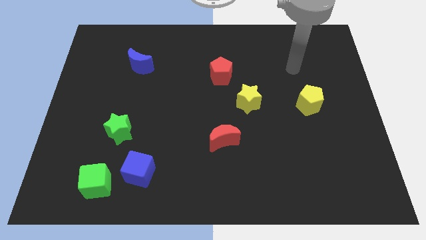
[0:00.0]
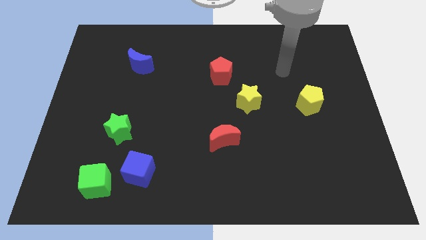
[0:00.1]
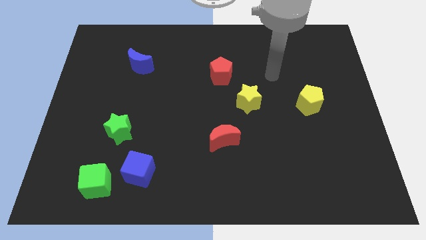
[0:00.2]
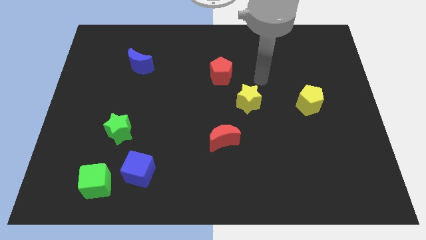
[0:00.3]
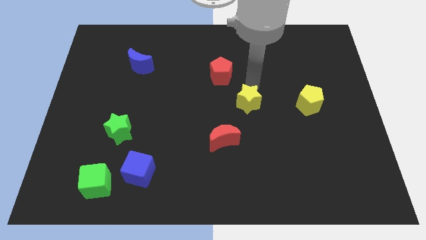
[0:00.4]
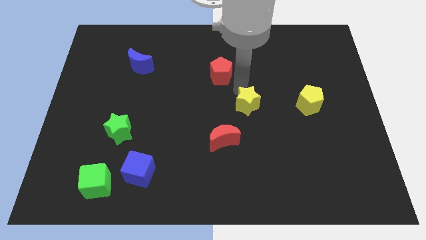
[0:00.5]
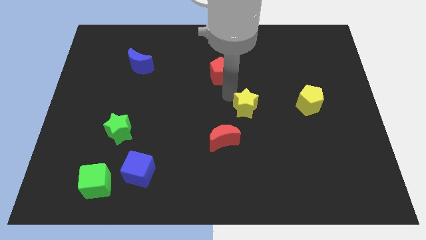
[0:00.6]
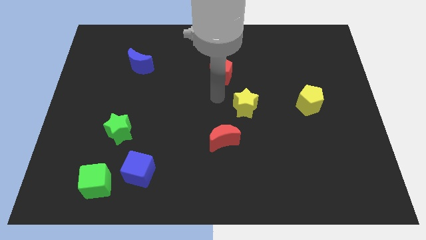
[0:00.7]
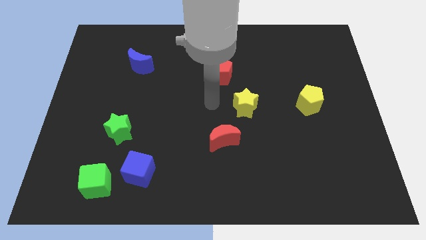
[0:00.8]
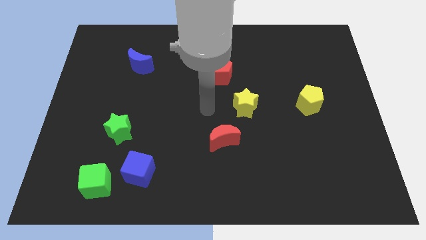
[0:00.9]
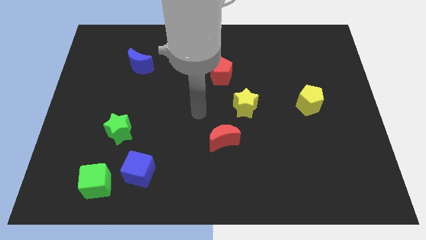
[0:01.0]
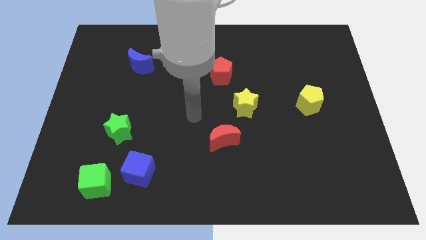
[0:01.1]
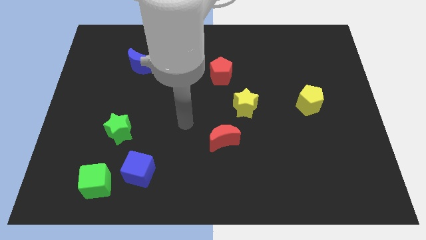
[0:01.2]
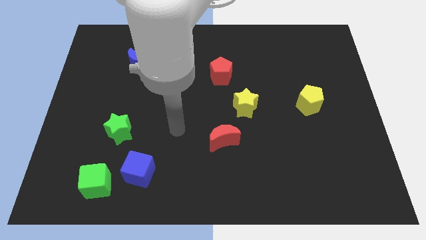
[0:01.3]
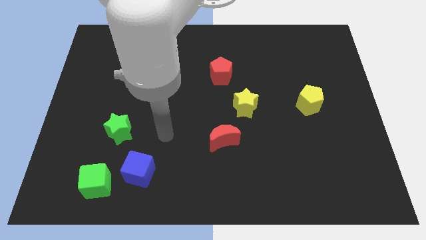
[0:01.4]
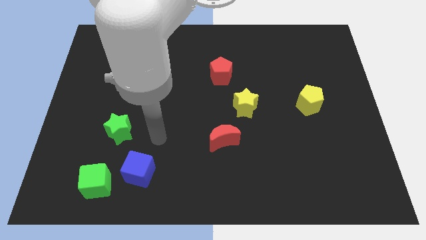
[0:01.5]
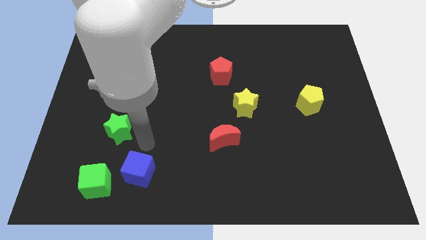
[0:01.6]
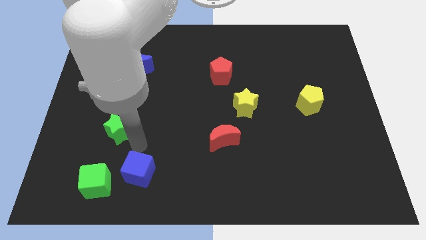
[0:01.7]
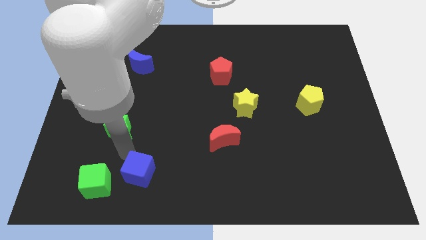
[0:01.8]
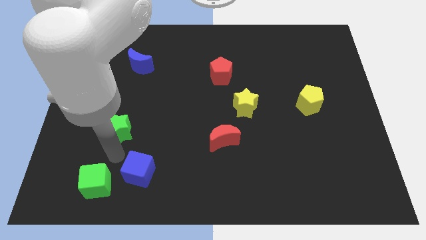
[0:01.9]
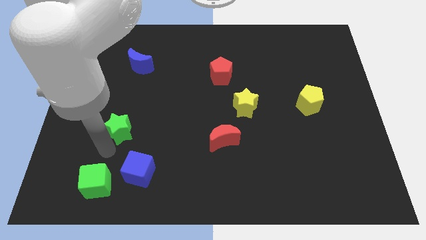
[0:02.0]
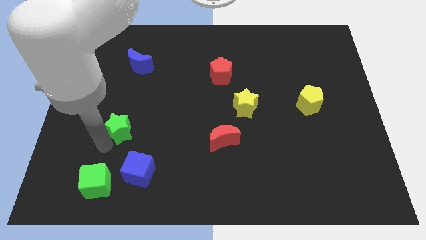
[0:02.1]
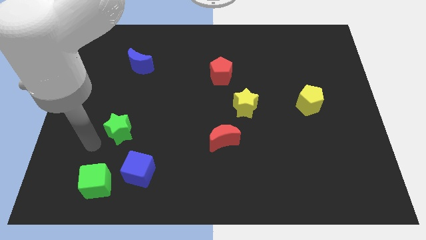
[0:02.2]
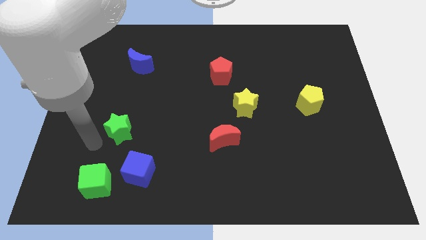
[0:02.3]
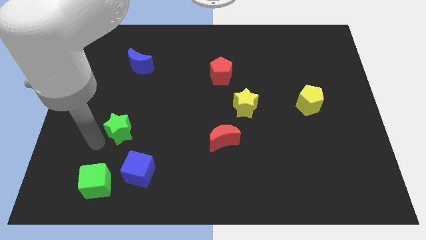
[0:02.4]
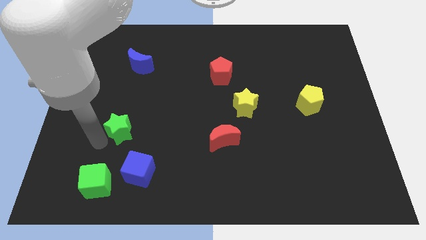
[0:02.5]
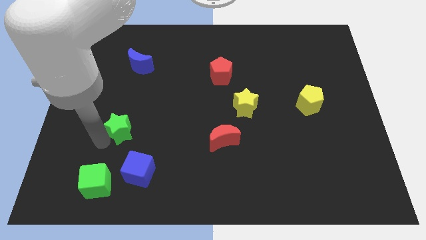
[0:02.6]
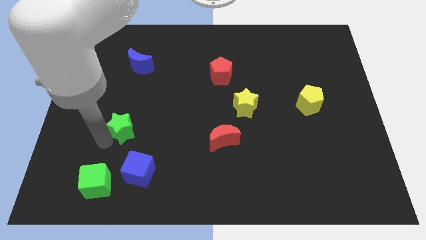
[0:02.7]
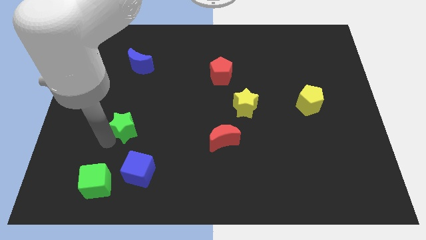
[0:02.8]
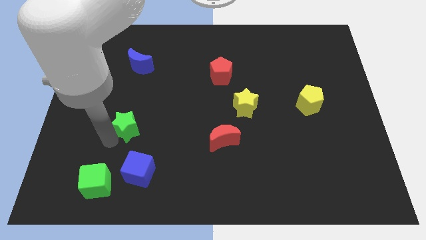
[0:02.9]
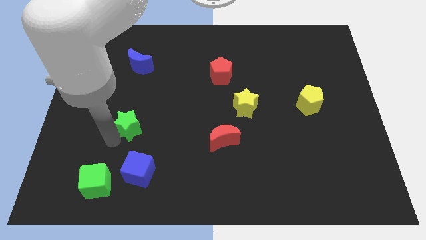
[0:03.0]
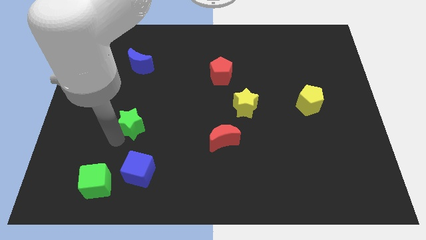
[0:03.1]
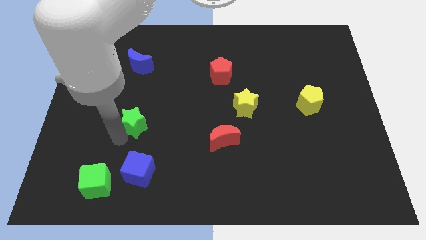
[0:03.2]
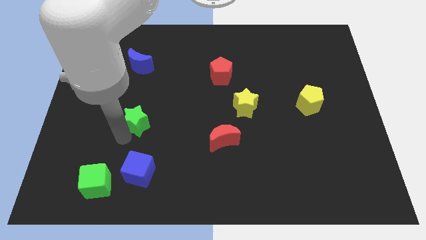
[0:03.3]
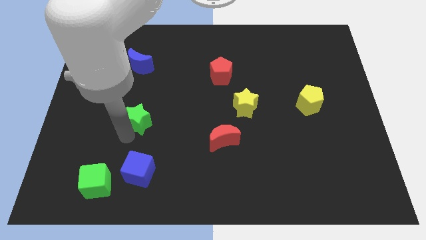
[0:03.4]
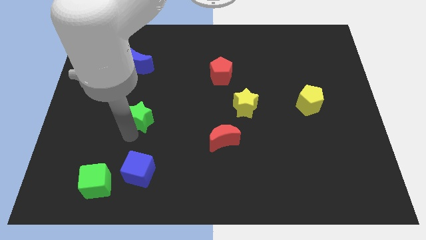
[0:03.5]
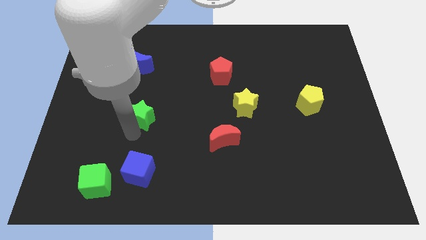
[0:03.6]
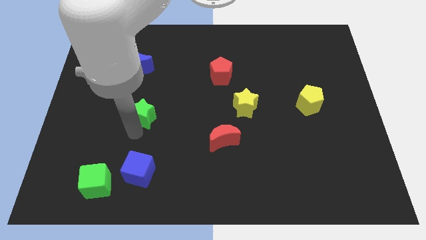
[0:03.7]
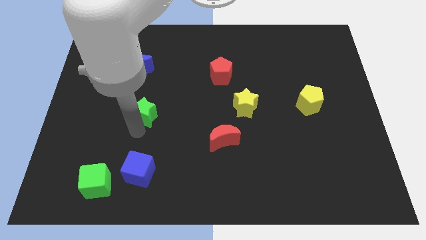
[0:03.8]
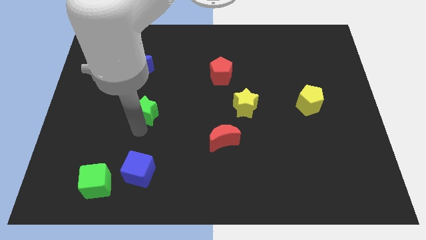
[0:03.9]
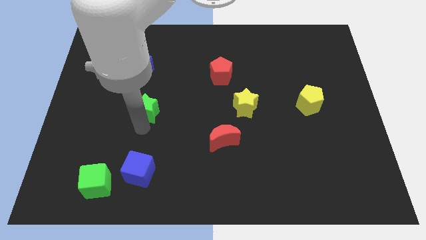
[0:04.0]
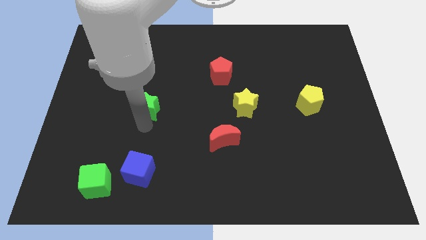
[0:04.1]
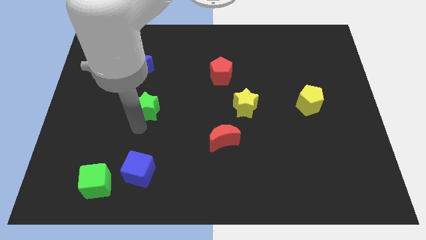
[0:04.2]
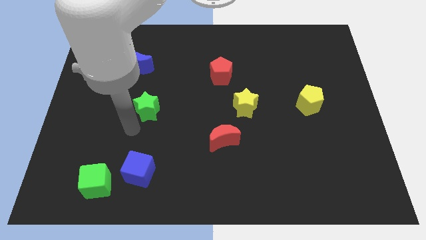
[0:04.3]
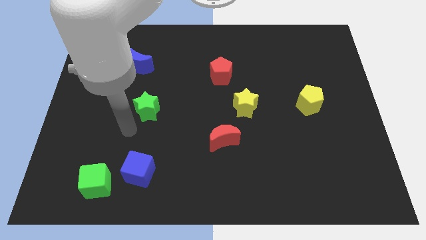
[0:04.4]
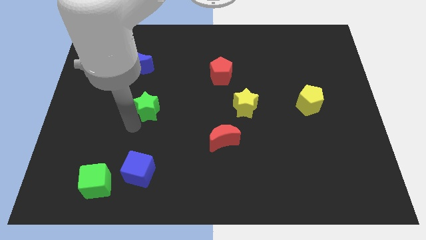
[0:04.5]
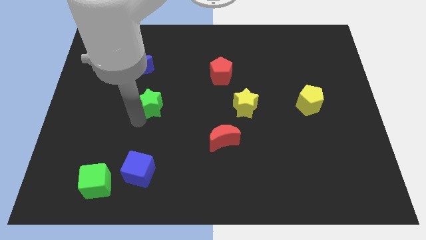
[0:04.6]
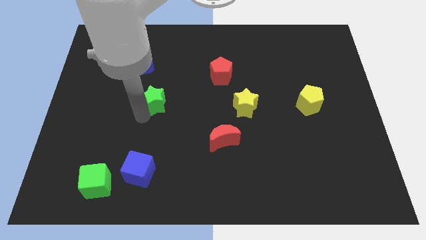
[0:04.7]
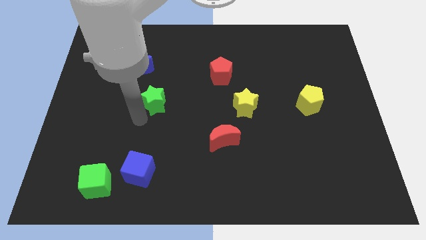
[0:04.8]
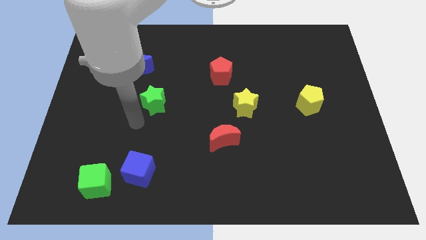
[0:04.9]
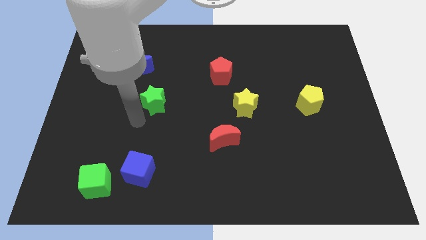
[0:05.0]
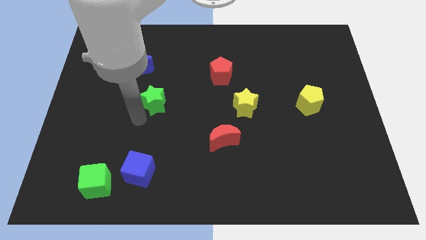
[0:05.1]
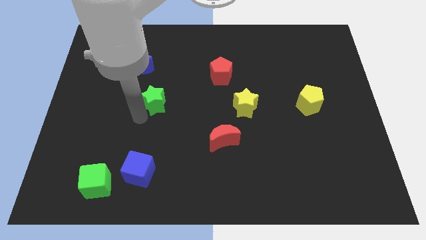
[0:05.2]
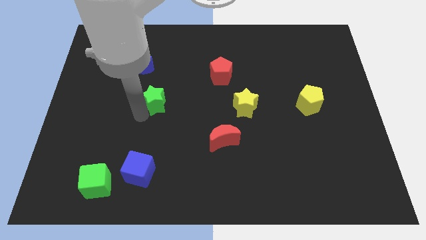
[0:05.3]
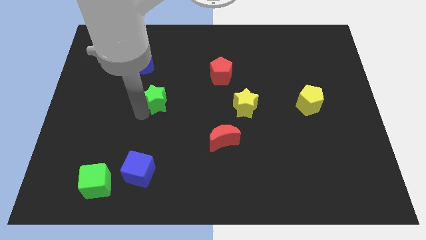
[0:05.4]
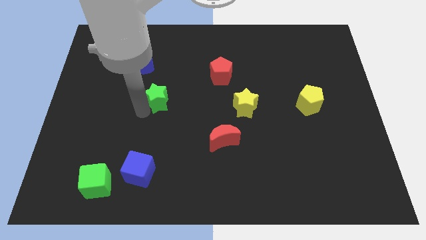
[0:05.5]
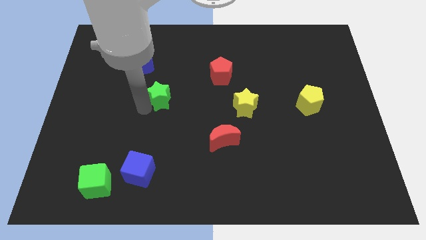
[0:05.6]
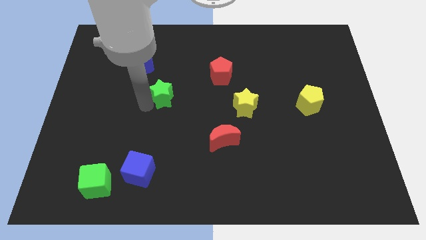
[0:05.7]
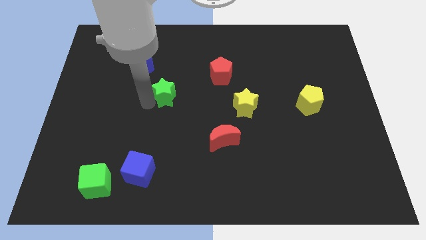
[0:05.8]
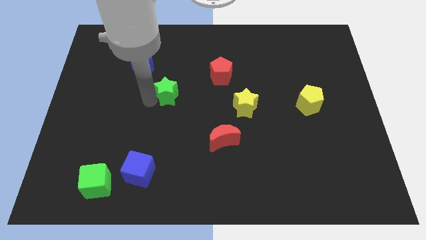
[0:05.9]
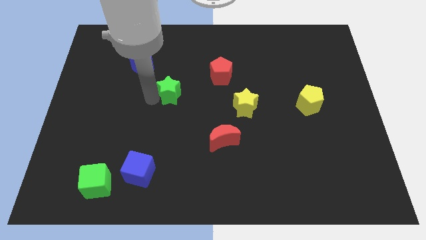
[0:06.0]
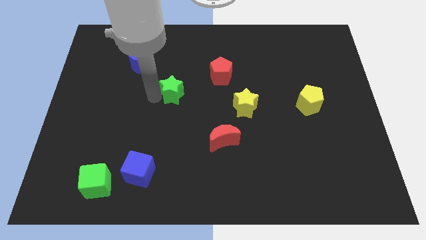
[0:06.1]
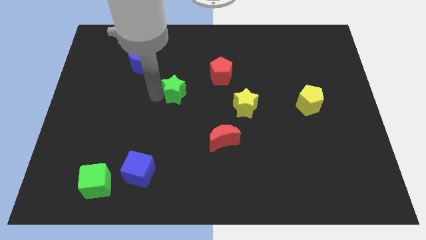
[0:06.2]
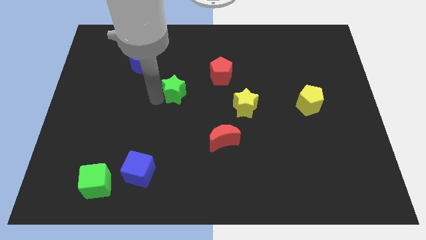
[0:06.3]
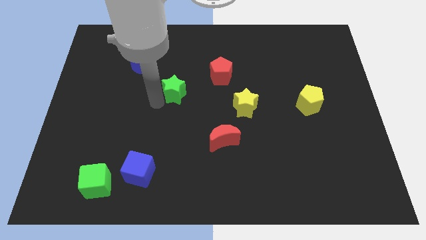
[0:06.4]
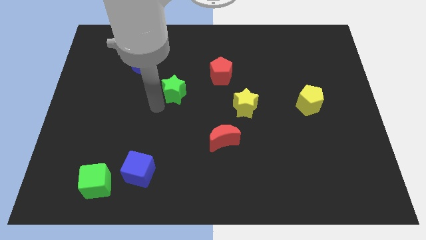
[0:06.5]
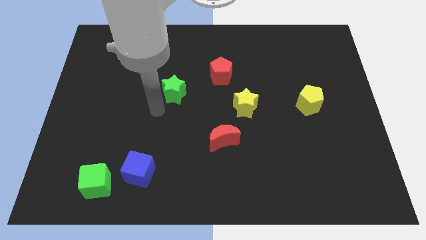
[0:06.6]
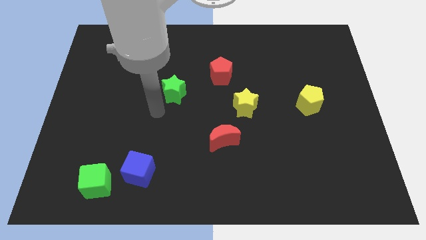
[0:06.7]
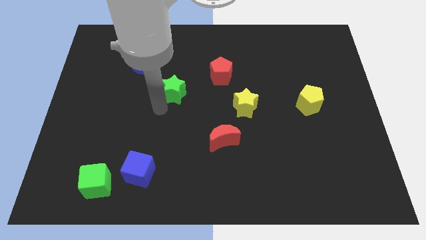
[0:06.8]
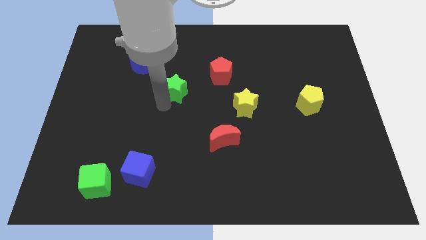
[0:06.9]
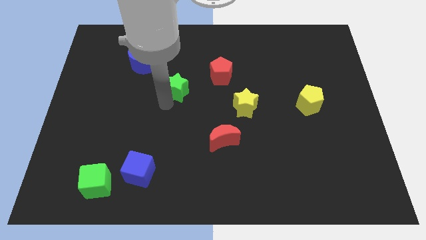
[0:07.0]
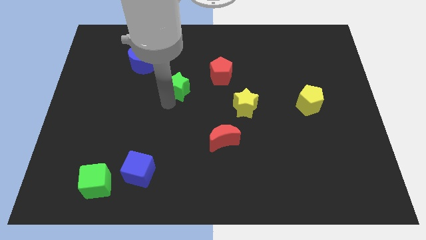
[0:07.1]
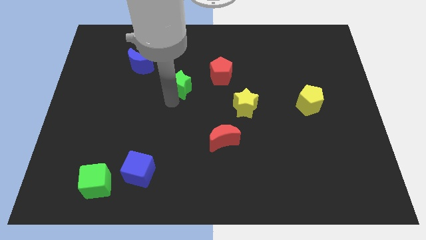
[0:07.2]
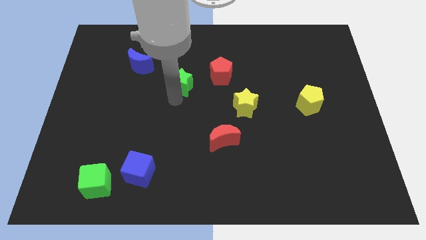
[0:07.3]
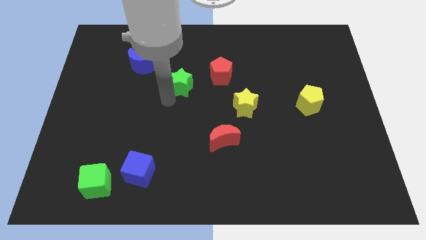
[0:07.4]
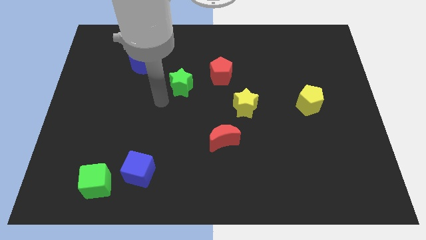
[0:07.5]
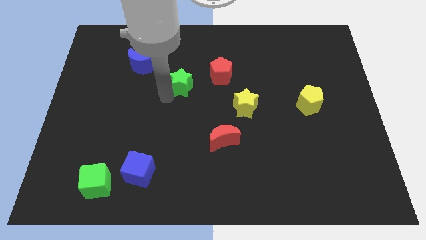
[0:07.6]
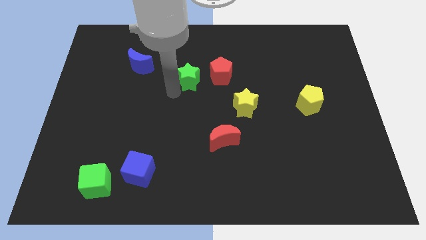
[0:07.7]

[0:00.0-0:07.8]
move the green star diagonally upwards and right
